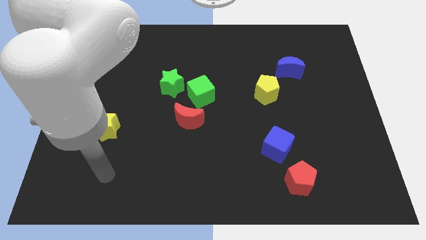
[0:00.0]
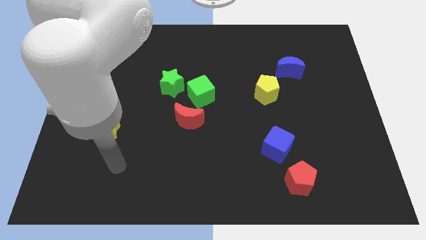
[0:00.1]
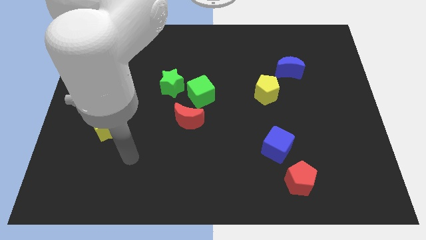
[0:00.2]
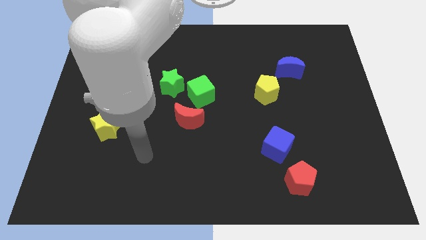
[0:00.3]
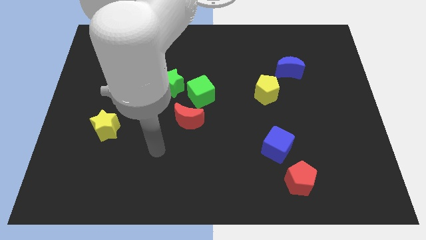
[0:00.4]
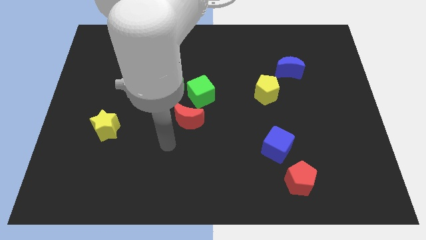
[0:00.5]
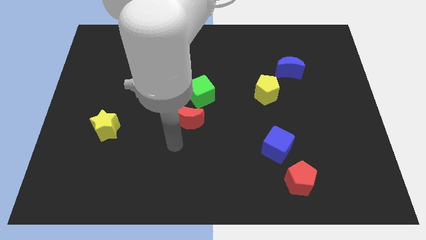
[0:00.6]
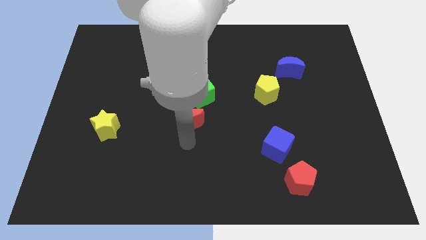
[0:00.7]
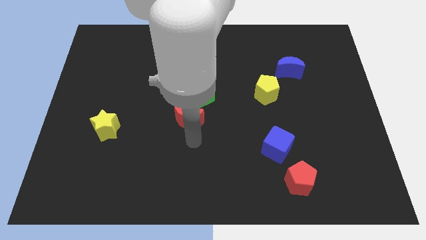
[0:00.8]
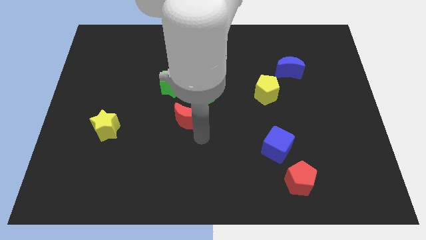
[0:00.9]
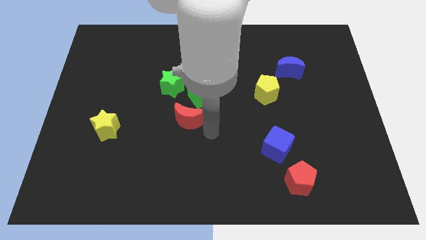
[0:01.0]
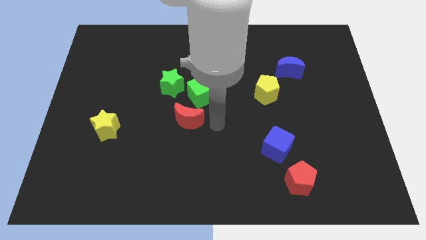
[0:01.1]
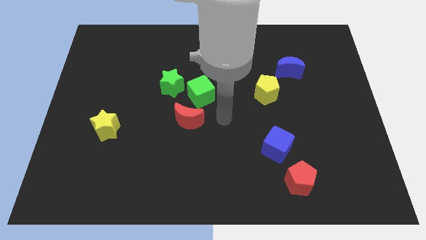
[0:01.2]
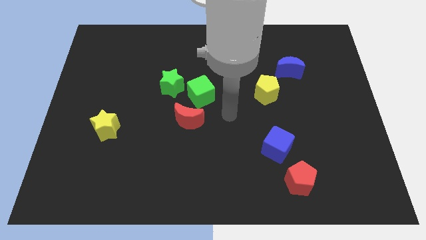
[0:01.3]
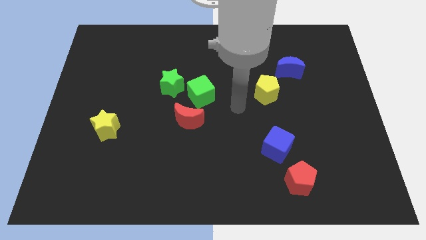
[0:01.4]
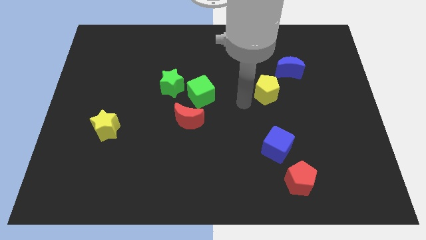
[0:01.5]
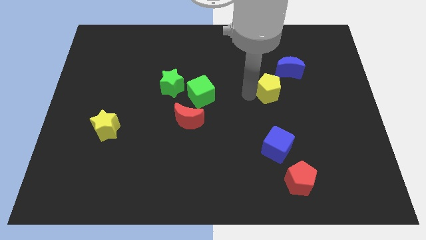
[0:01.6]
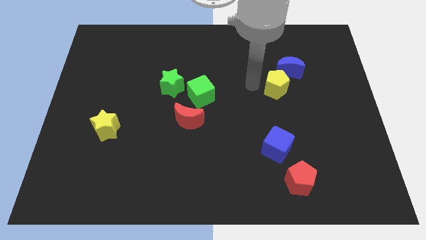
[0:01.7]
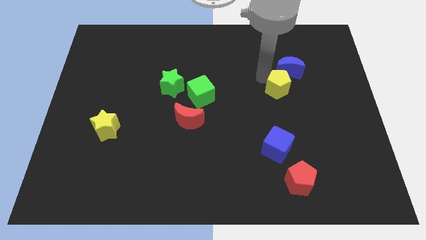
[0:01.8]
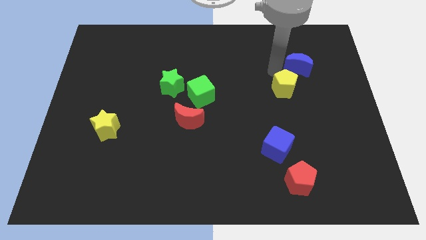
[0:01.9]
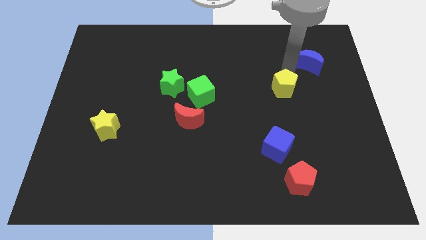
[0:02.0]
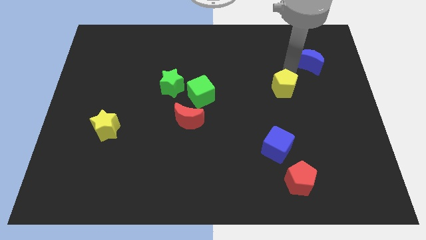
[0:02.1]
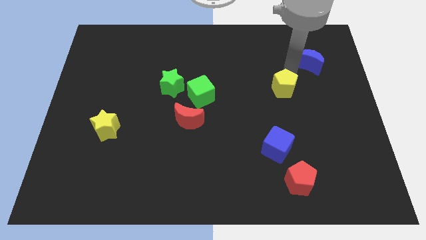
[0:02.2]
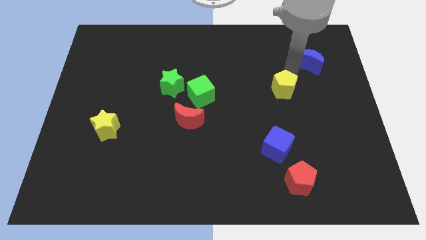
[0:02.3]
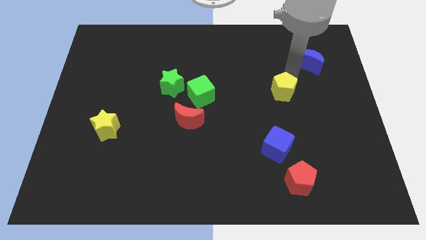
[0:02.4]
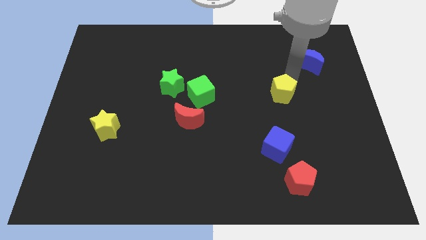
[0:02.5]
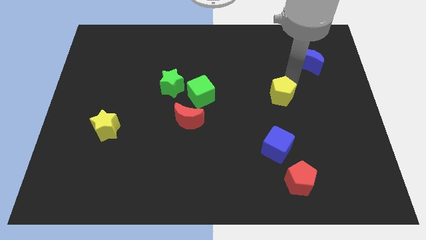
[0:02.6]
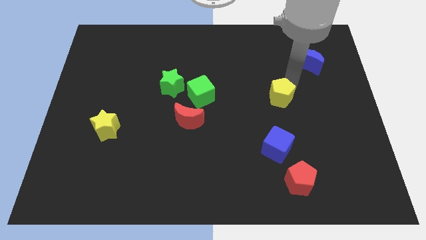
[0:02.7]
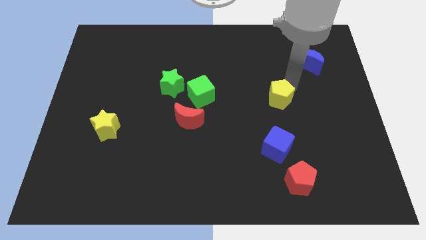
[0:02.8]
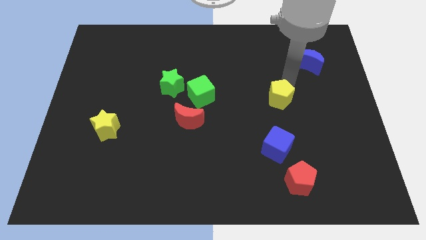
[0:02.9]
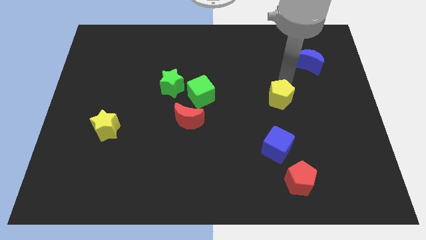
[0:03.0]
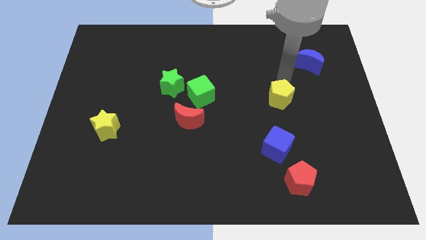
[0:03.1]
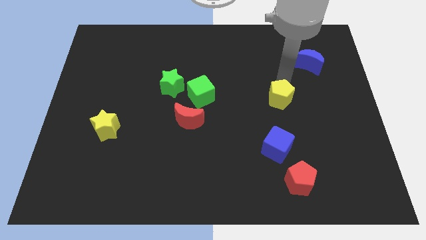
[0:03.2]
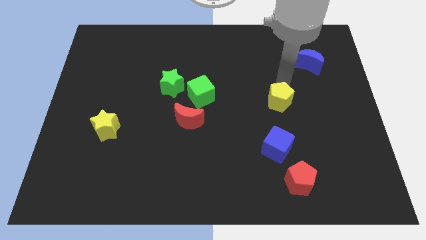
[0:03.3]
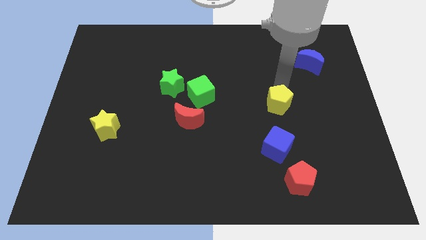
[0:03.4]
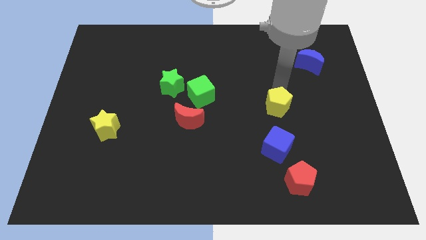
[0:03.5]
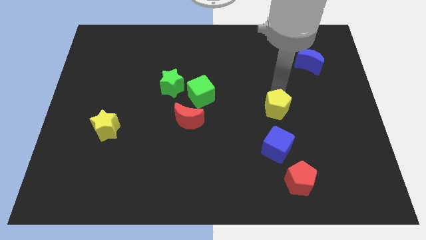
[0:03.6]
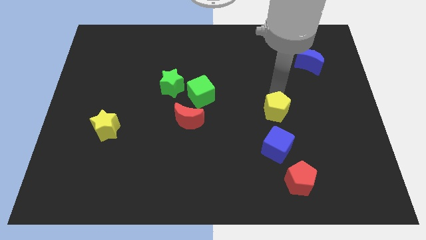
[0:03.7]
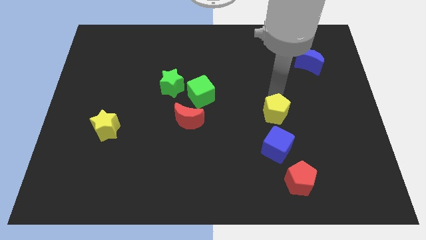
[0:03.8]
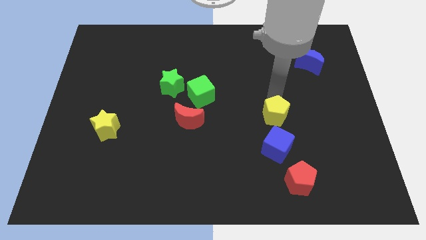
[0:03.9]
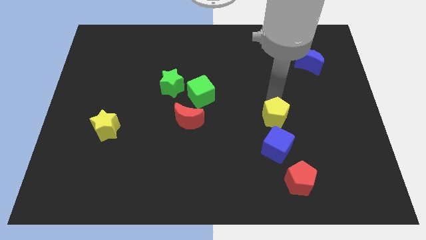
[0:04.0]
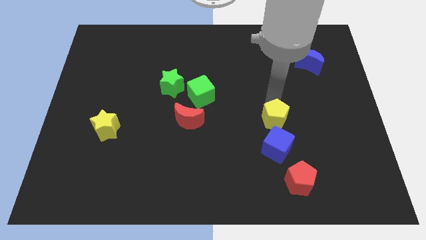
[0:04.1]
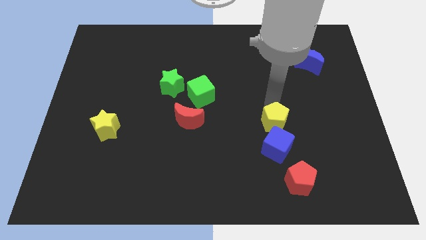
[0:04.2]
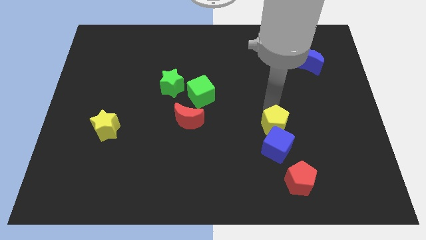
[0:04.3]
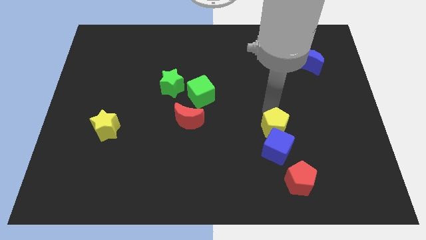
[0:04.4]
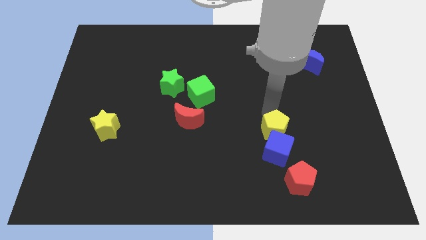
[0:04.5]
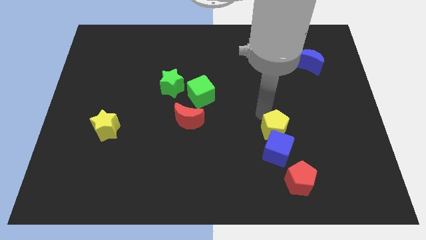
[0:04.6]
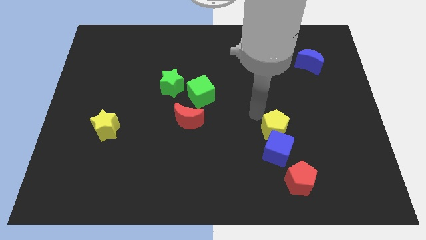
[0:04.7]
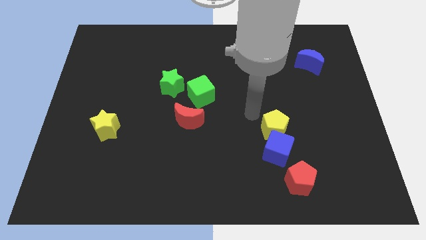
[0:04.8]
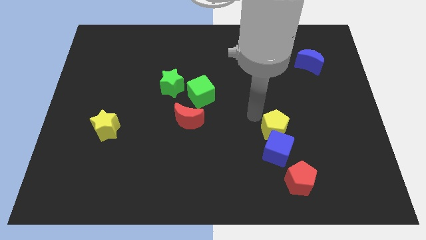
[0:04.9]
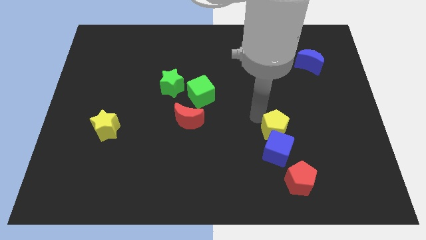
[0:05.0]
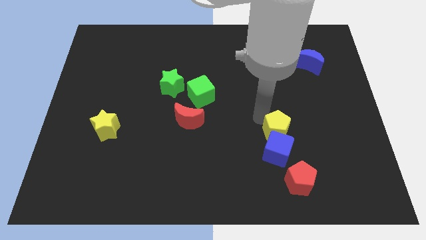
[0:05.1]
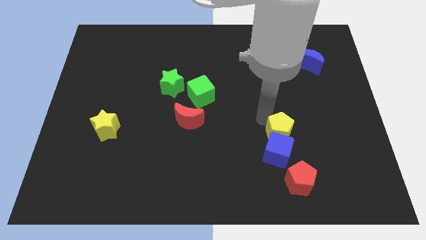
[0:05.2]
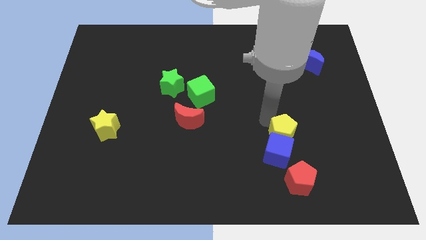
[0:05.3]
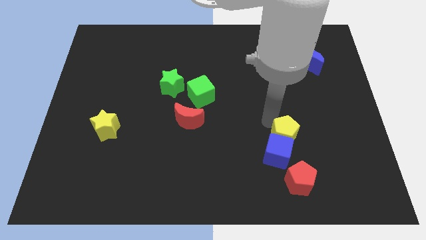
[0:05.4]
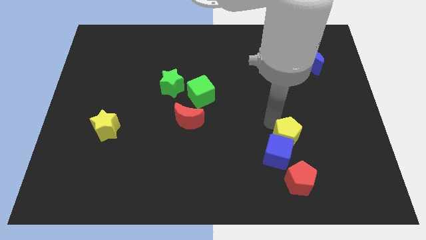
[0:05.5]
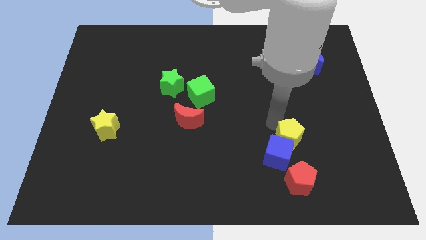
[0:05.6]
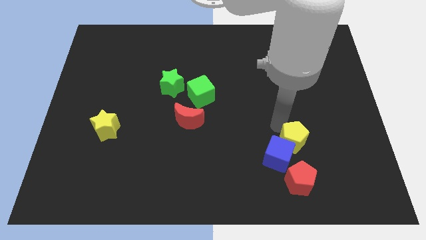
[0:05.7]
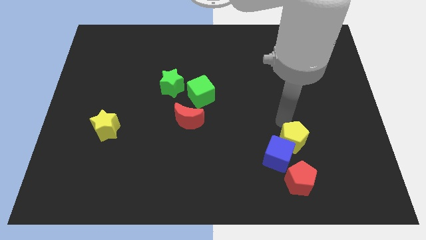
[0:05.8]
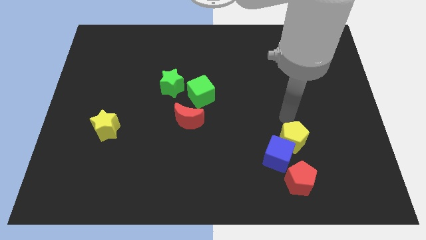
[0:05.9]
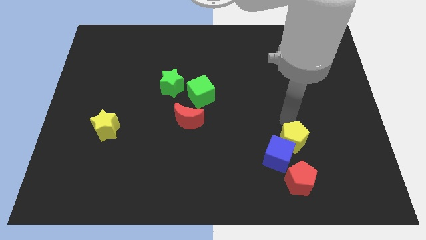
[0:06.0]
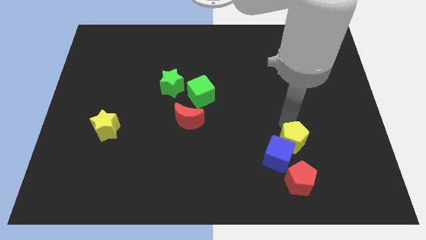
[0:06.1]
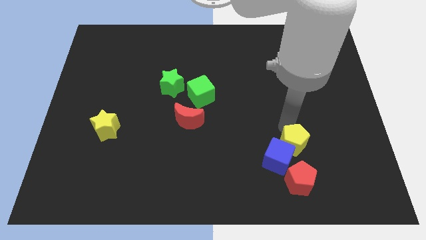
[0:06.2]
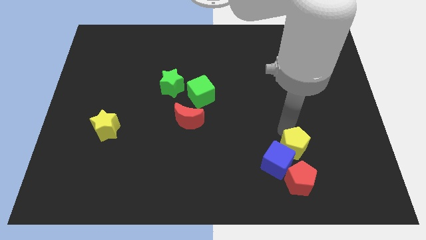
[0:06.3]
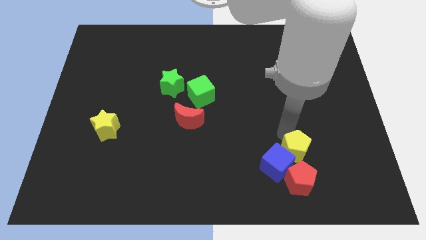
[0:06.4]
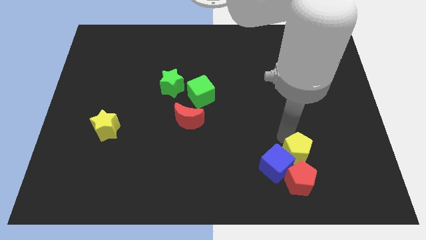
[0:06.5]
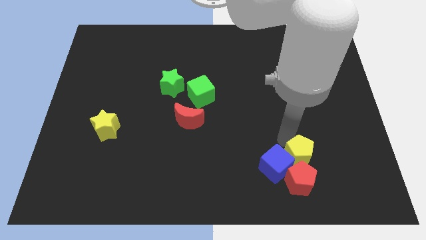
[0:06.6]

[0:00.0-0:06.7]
put the yellow pentagon close to the red pentagon

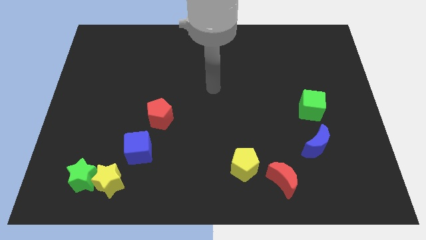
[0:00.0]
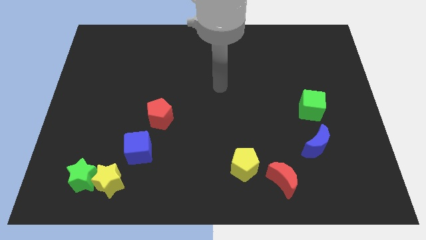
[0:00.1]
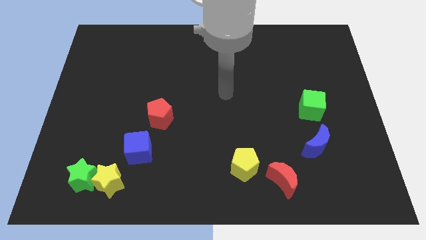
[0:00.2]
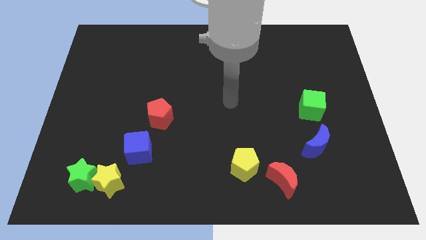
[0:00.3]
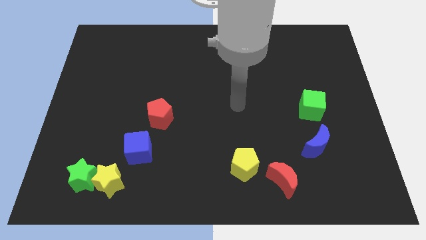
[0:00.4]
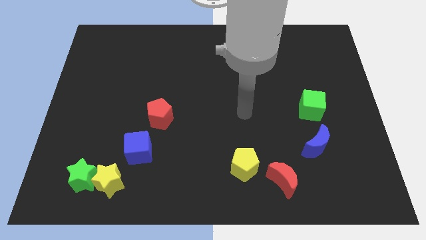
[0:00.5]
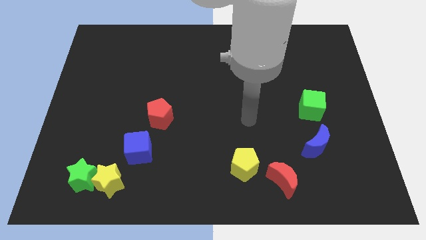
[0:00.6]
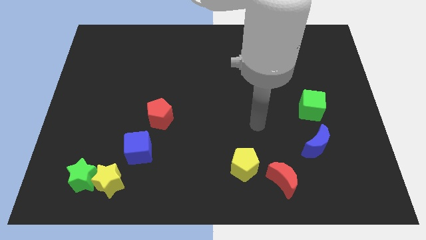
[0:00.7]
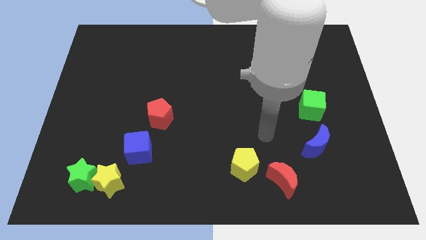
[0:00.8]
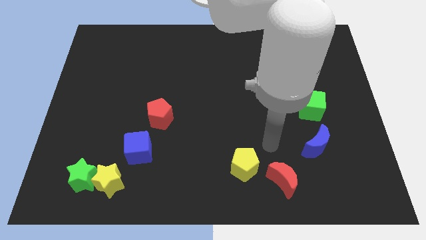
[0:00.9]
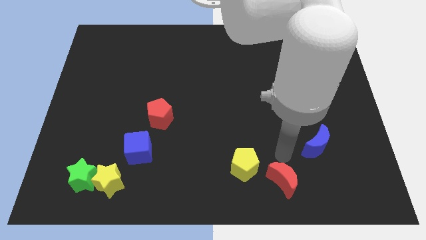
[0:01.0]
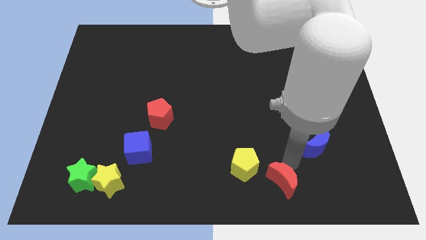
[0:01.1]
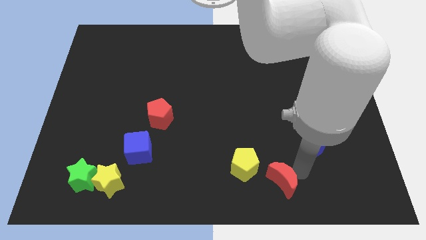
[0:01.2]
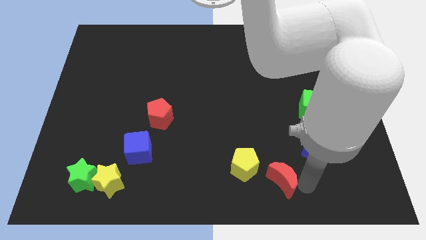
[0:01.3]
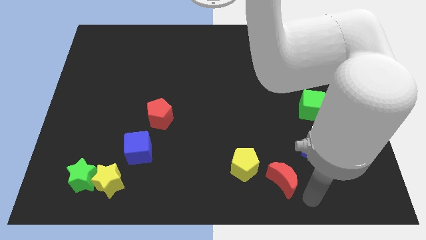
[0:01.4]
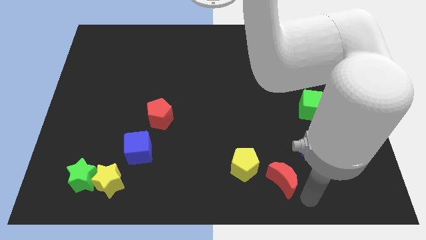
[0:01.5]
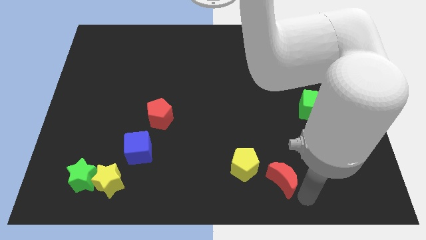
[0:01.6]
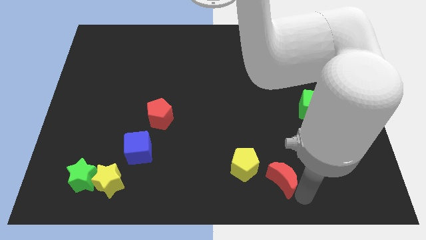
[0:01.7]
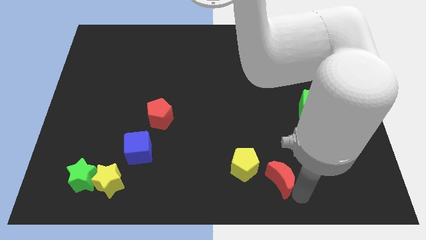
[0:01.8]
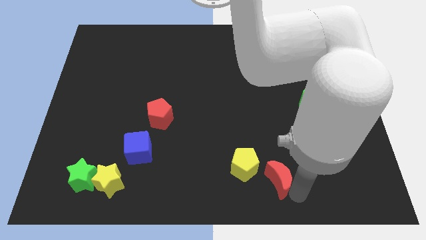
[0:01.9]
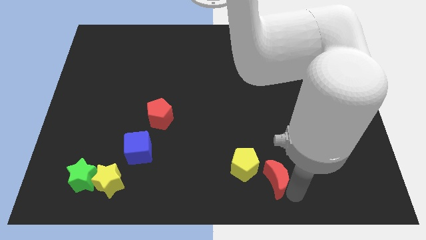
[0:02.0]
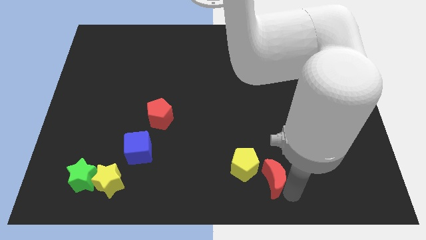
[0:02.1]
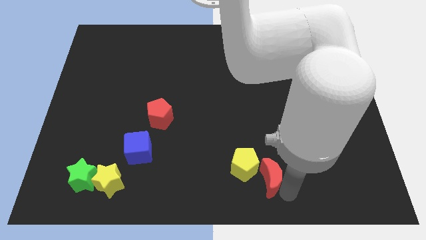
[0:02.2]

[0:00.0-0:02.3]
move the red moon to the yellow pentagon
